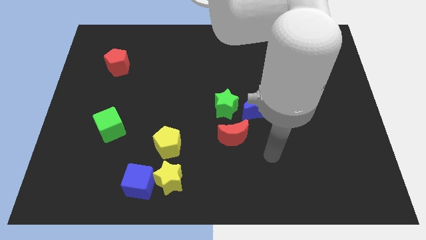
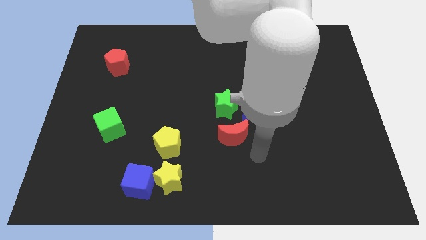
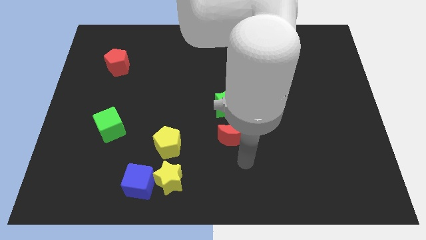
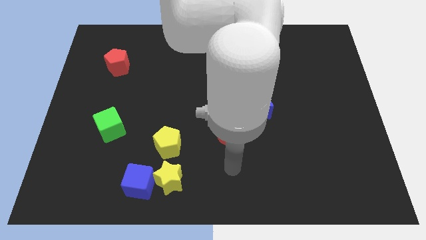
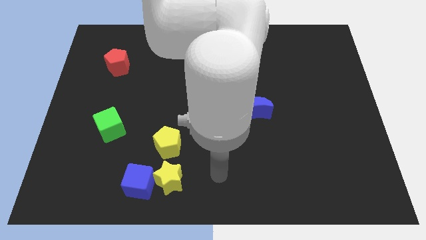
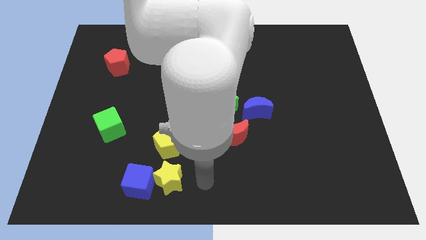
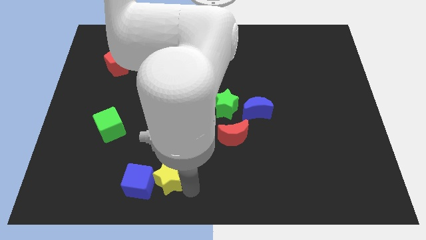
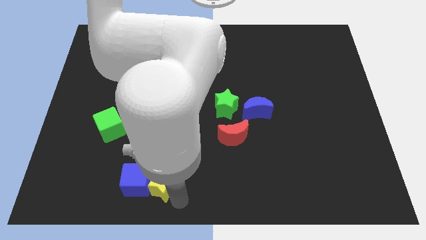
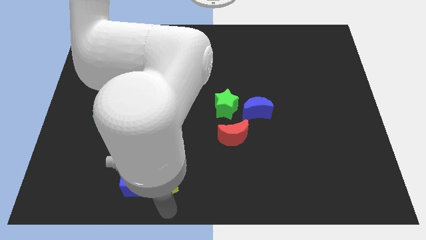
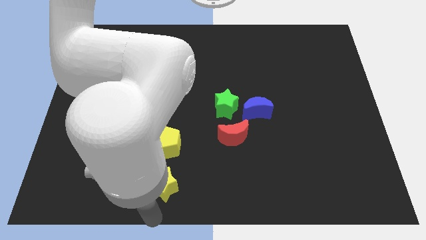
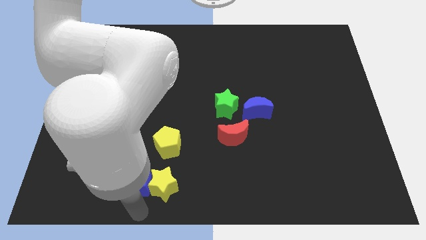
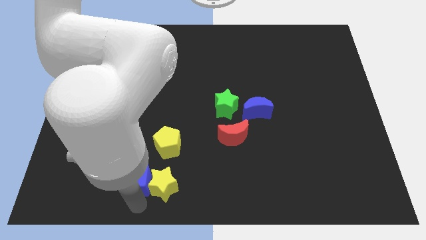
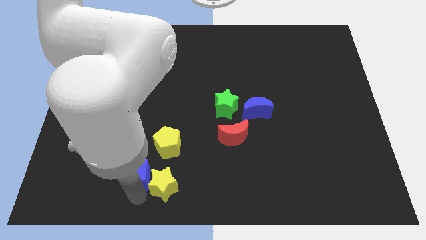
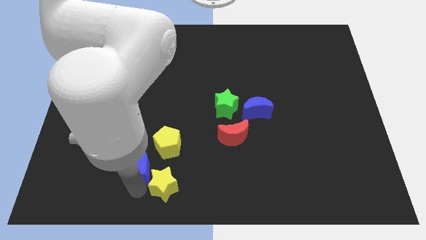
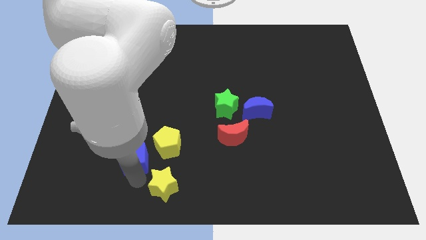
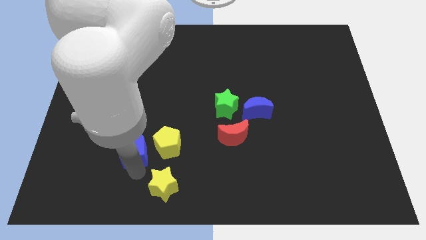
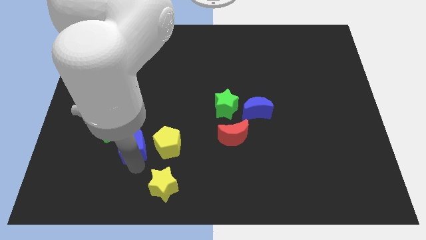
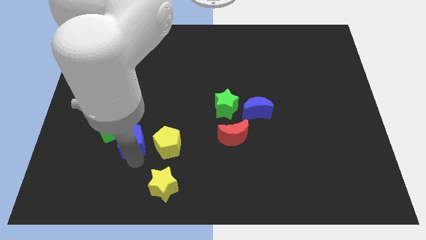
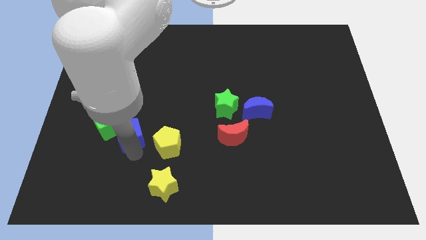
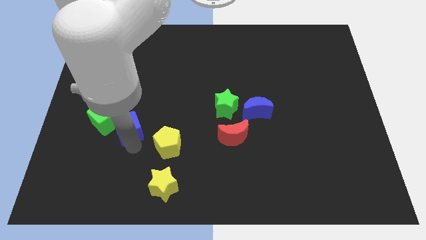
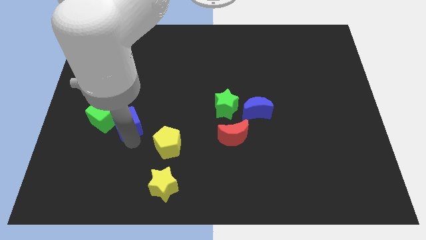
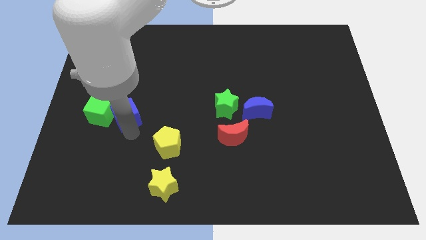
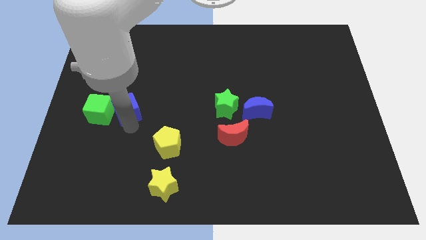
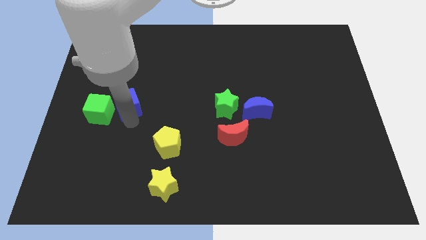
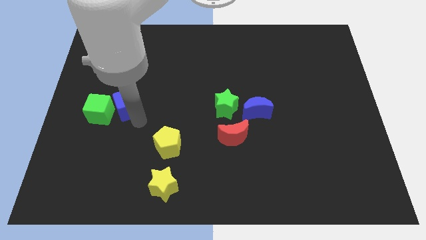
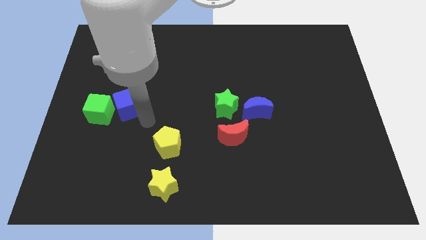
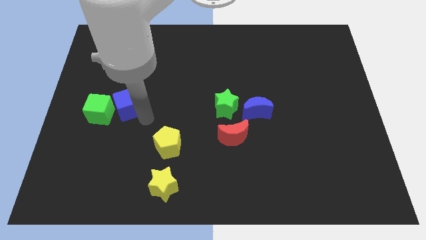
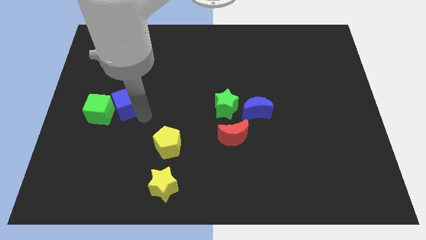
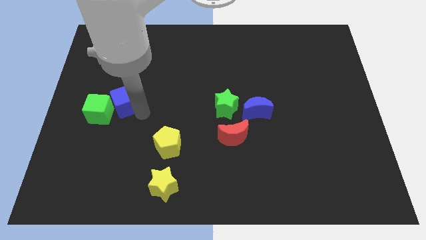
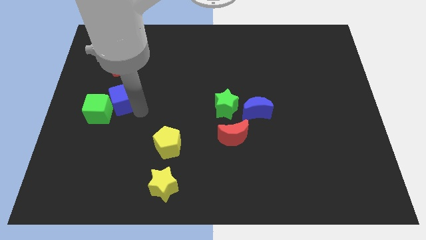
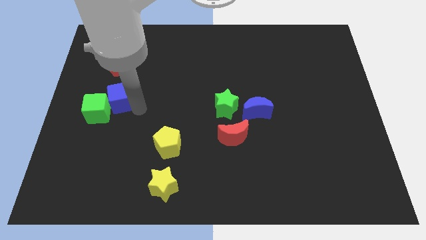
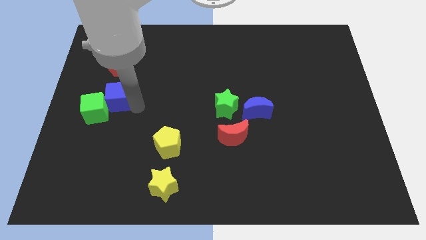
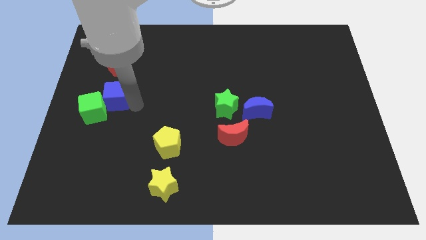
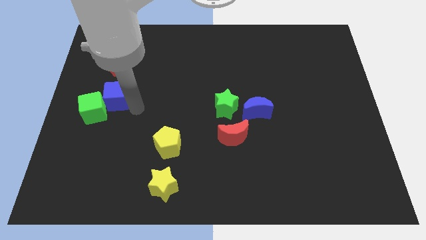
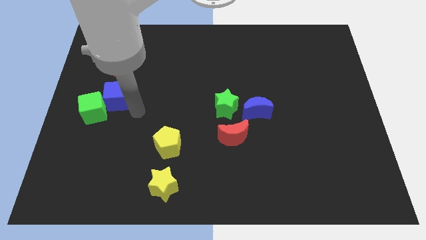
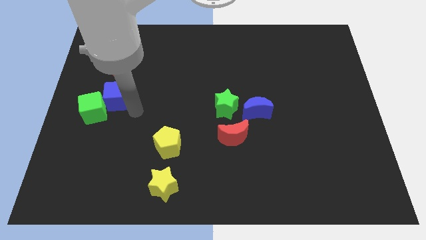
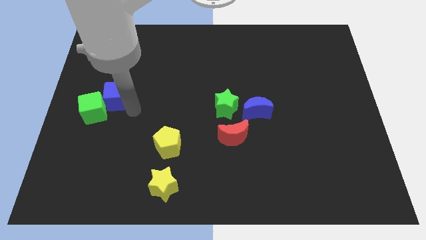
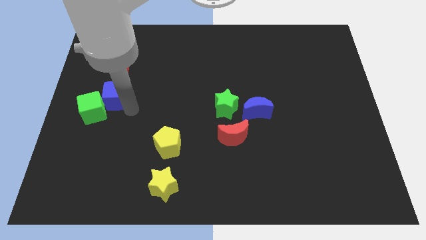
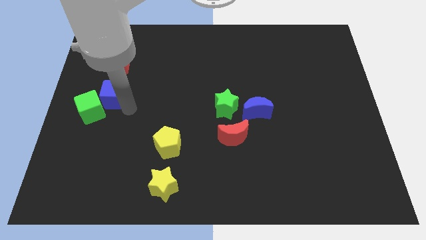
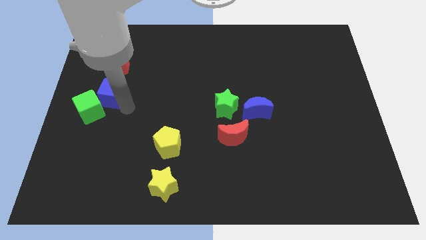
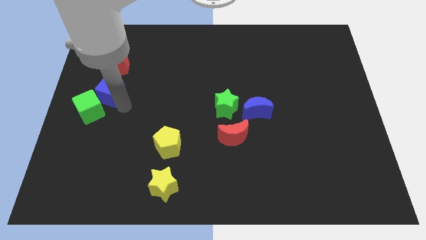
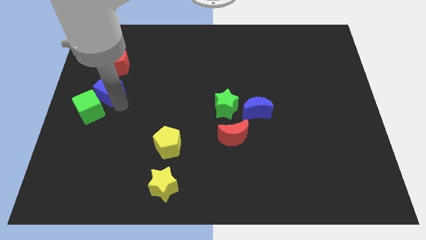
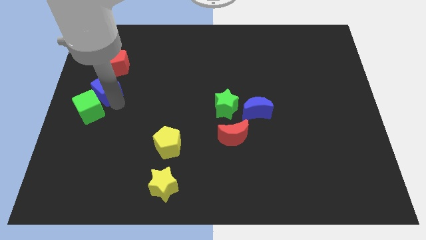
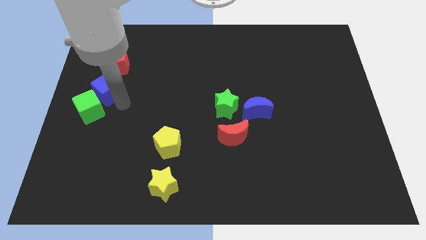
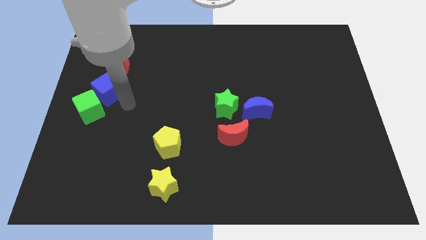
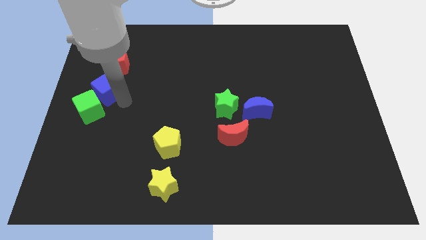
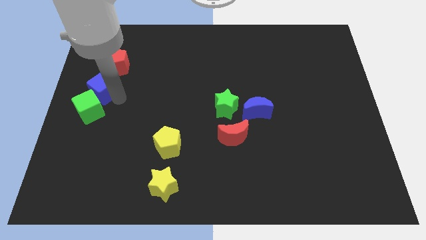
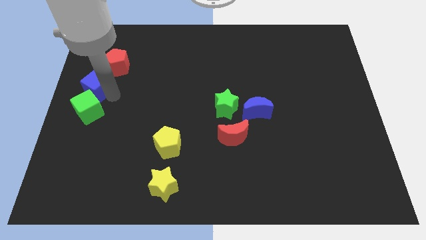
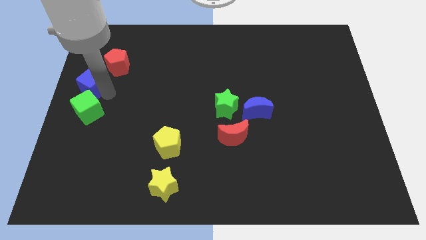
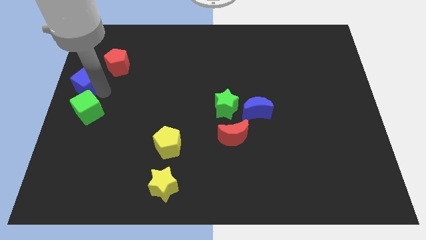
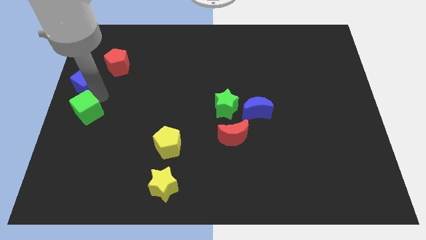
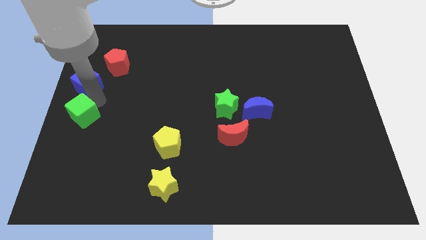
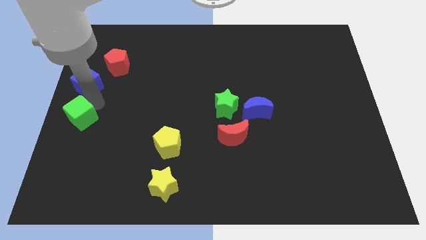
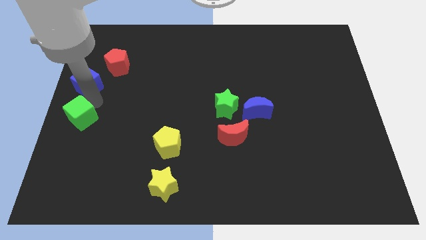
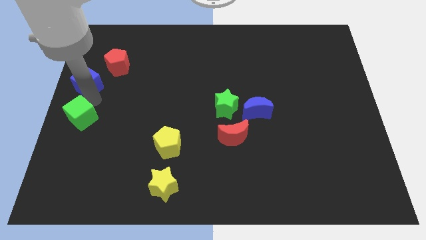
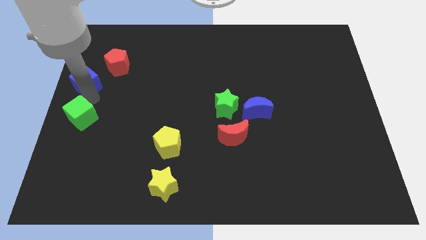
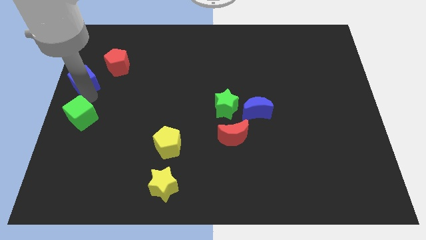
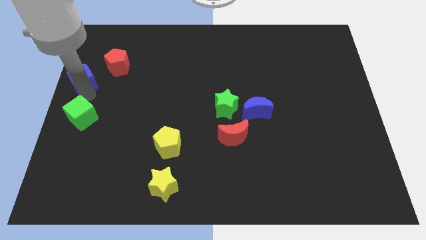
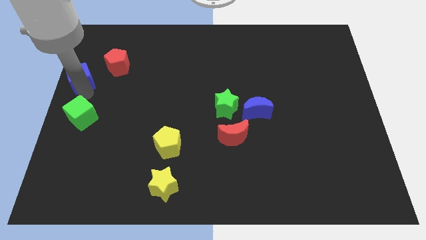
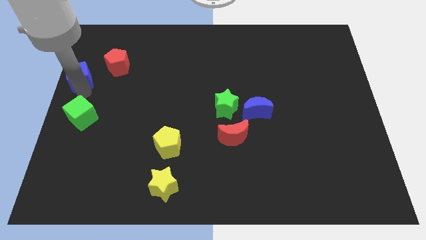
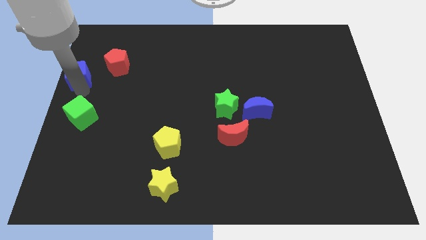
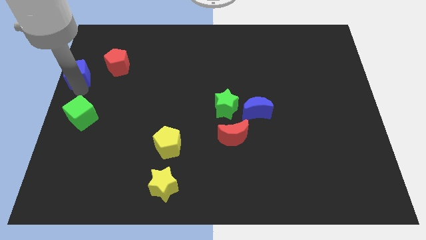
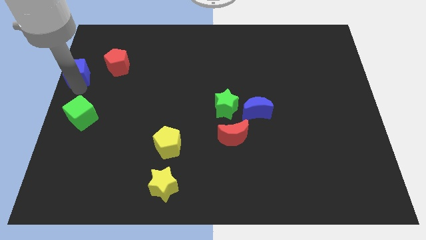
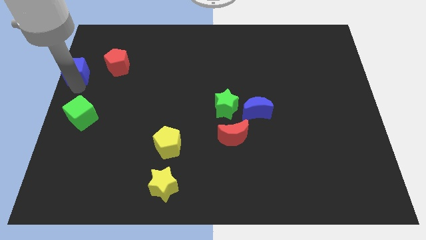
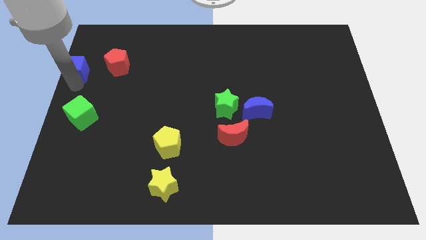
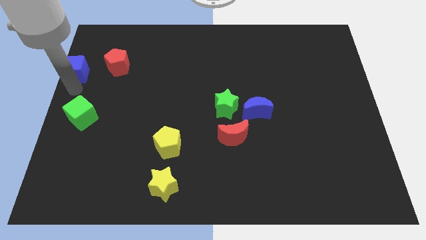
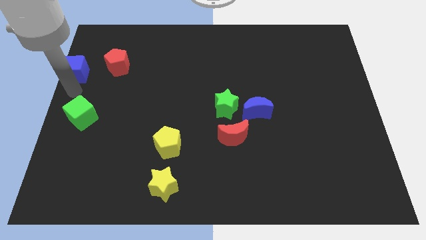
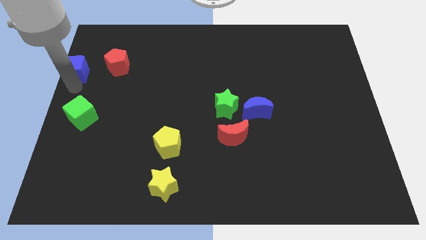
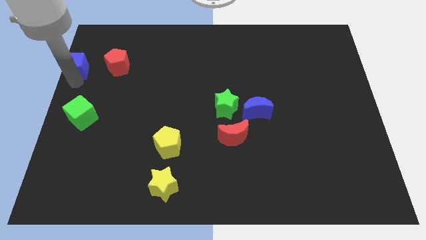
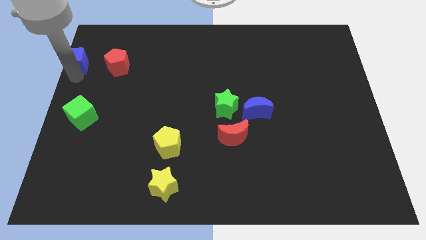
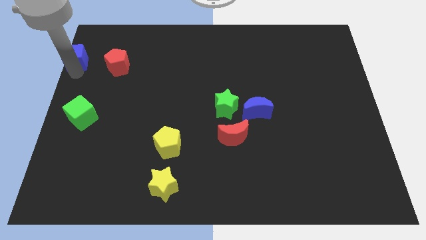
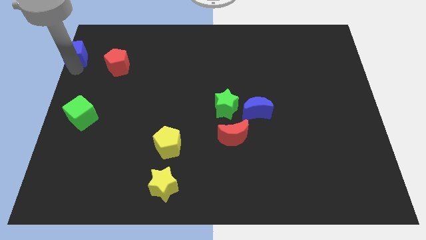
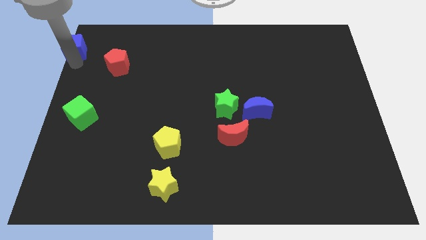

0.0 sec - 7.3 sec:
move the blue cube to the upper left corner
